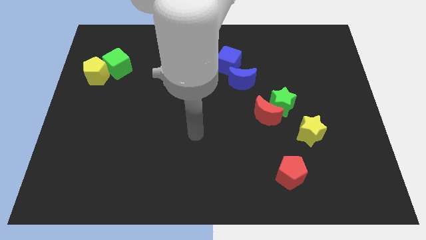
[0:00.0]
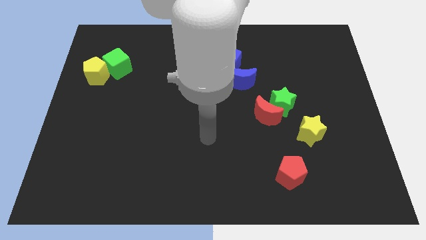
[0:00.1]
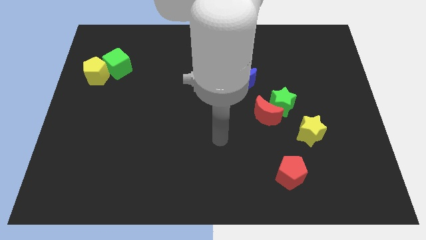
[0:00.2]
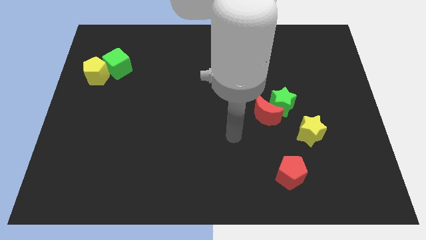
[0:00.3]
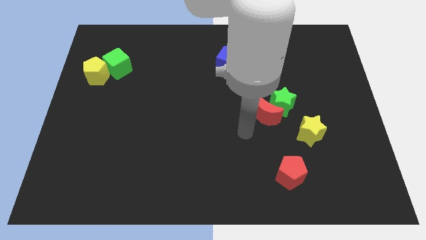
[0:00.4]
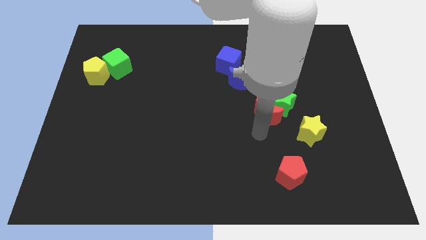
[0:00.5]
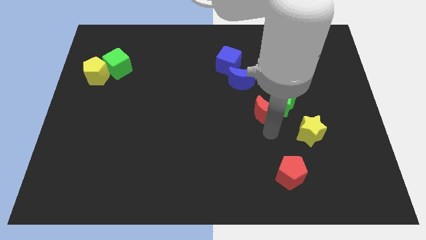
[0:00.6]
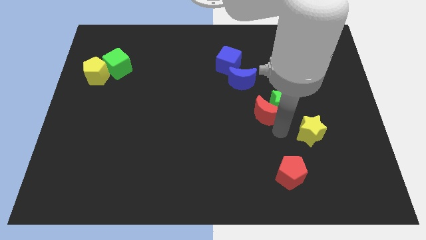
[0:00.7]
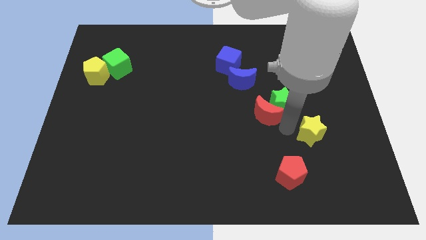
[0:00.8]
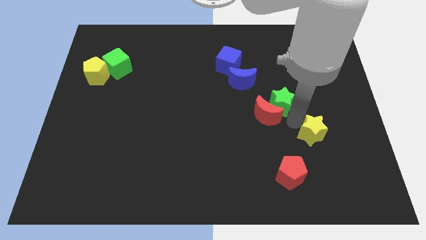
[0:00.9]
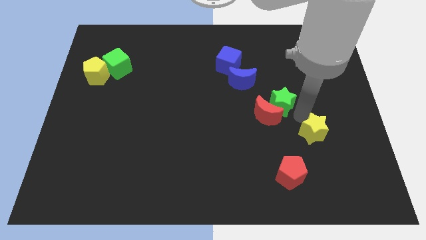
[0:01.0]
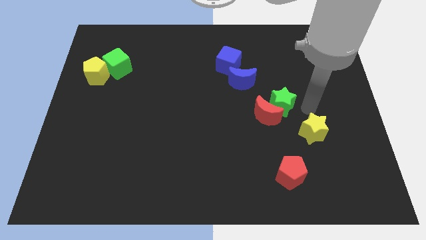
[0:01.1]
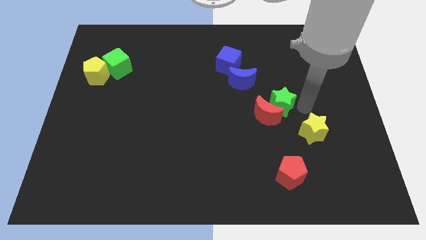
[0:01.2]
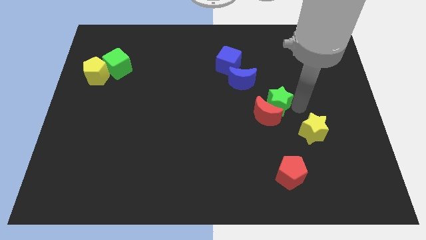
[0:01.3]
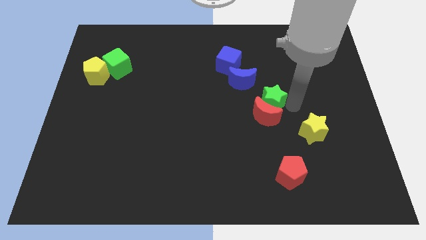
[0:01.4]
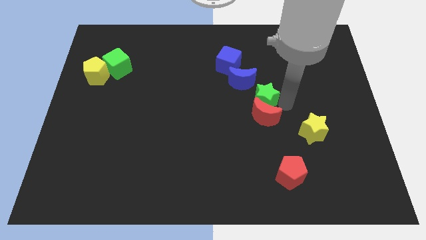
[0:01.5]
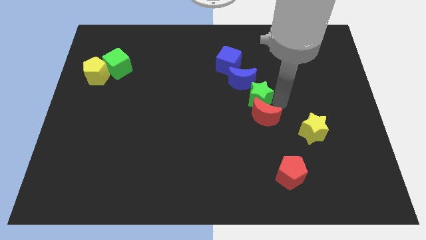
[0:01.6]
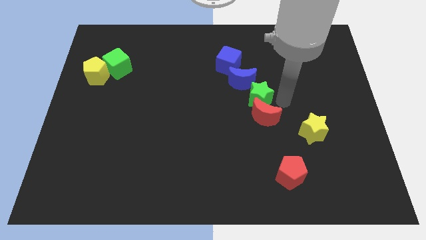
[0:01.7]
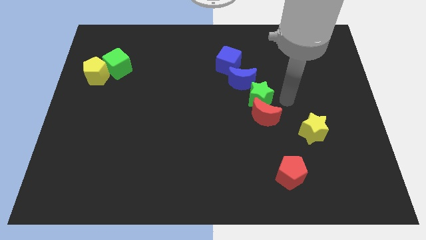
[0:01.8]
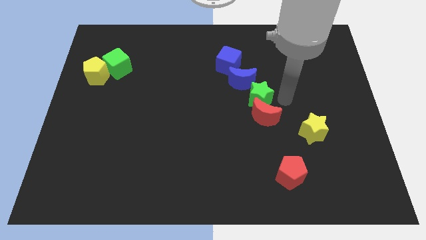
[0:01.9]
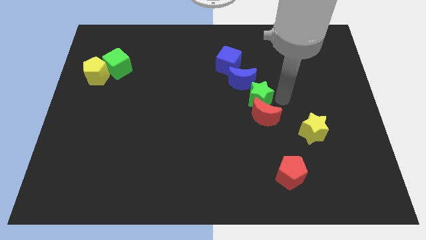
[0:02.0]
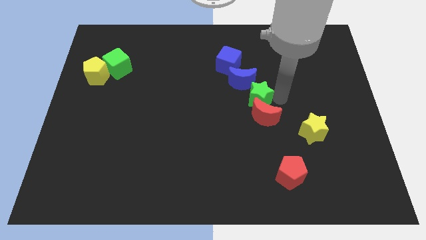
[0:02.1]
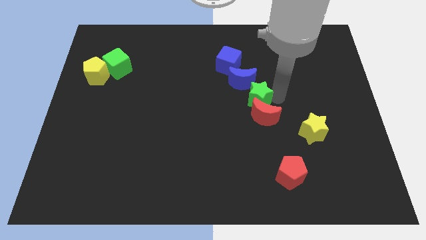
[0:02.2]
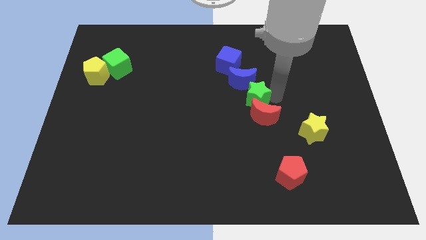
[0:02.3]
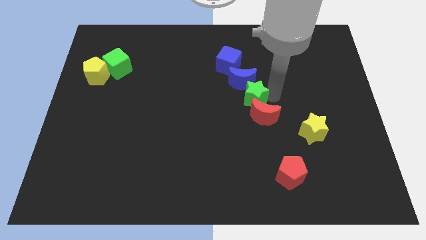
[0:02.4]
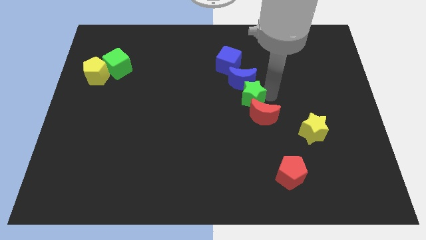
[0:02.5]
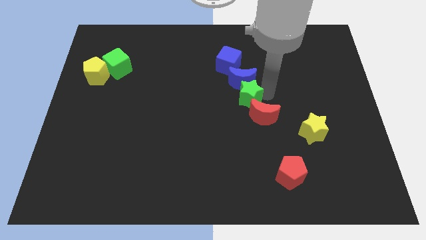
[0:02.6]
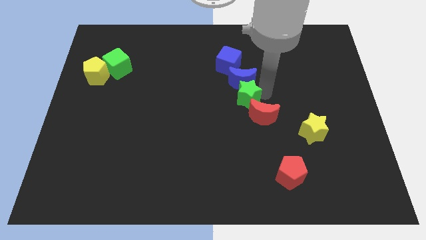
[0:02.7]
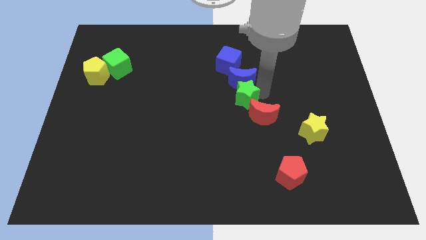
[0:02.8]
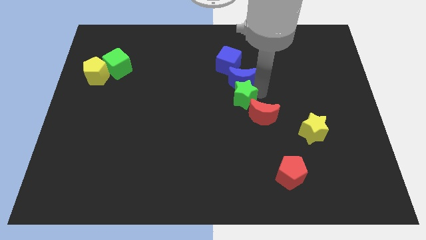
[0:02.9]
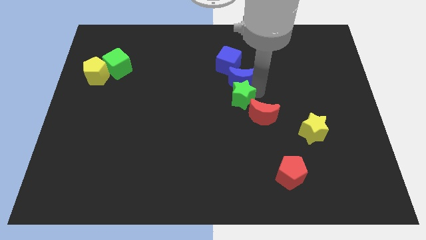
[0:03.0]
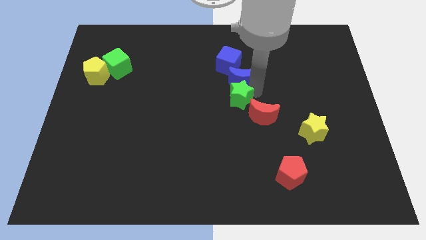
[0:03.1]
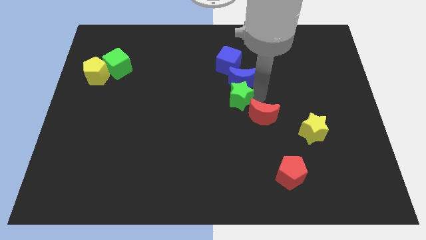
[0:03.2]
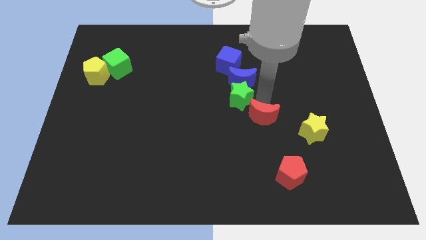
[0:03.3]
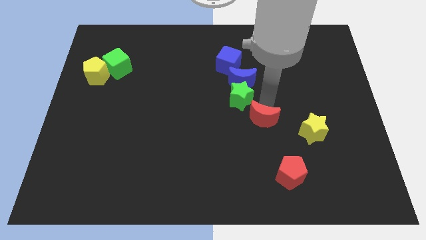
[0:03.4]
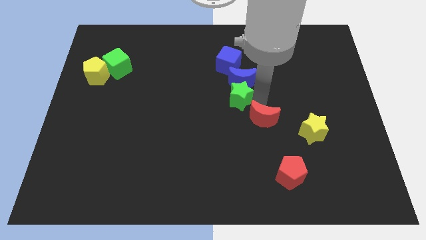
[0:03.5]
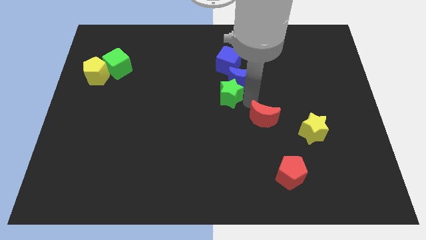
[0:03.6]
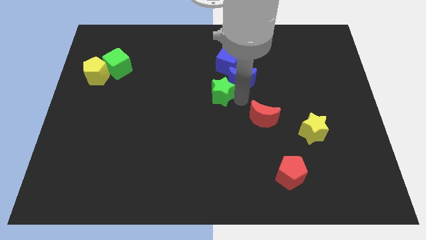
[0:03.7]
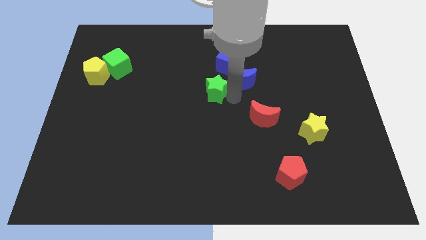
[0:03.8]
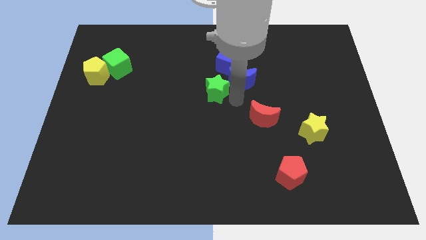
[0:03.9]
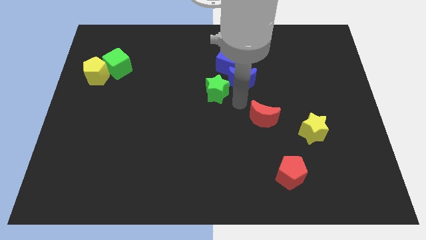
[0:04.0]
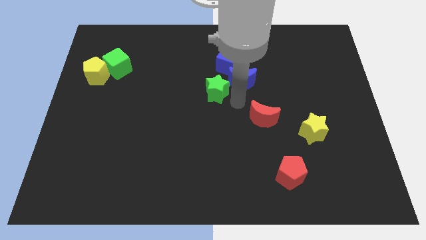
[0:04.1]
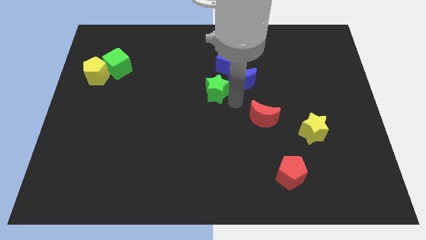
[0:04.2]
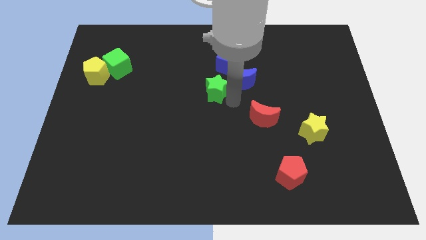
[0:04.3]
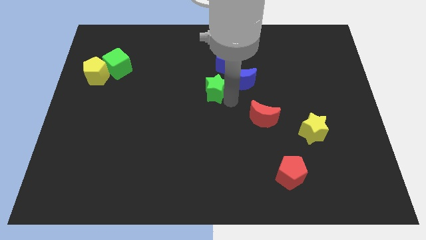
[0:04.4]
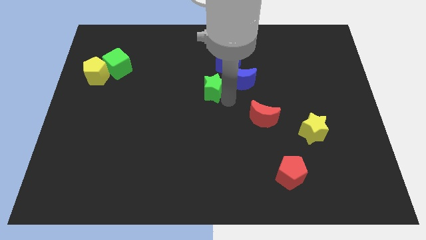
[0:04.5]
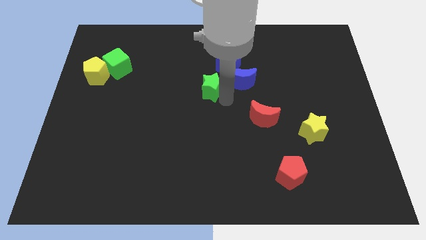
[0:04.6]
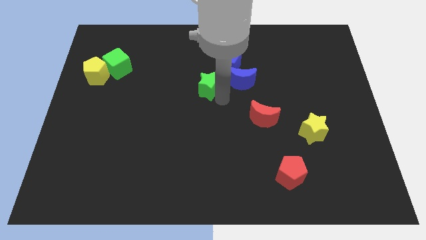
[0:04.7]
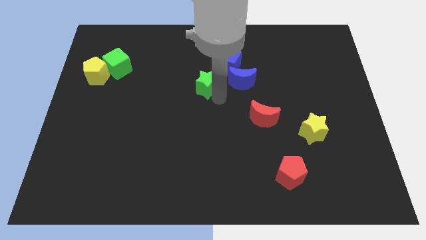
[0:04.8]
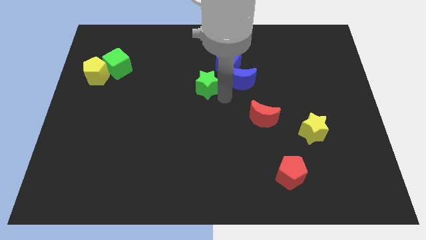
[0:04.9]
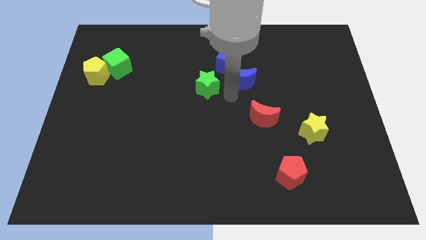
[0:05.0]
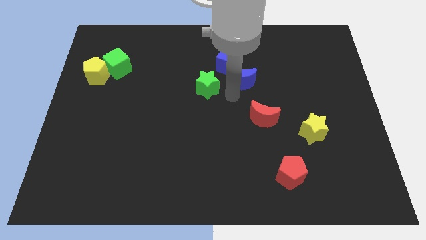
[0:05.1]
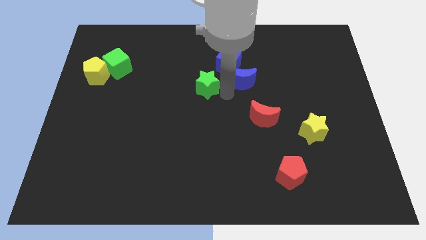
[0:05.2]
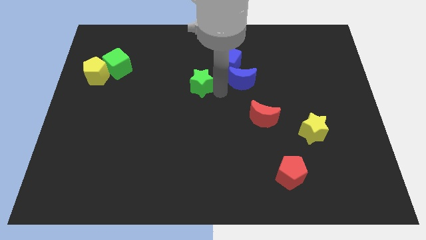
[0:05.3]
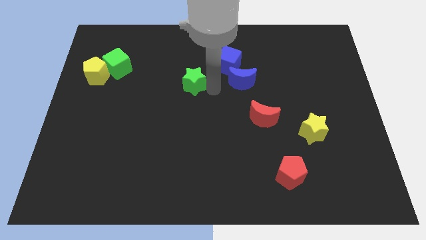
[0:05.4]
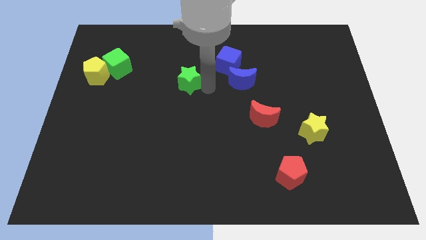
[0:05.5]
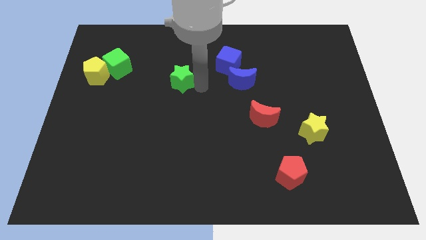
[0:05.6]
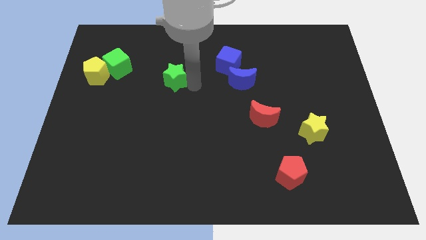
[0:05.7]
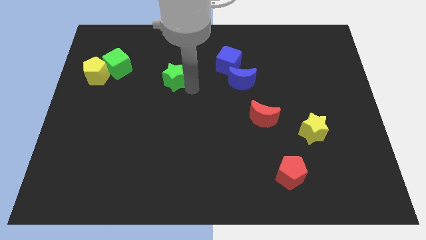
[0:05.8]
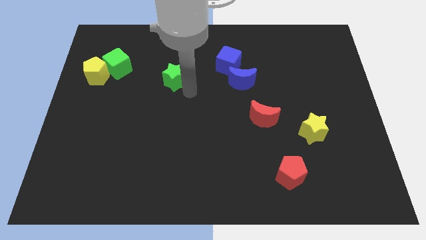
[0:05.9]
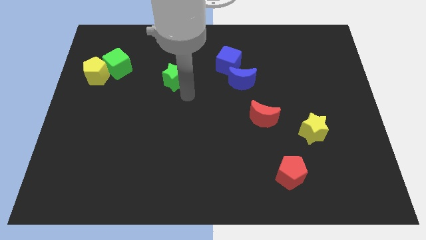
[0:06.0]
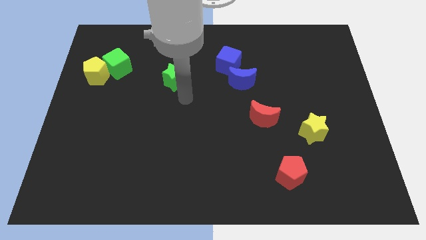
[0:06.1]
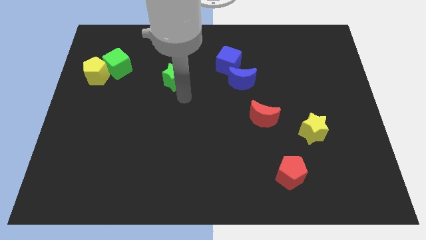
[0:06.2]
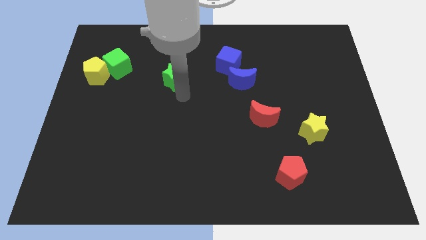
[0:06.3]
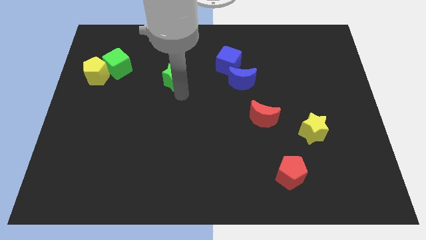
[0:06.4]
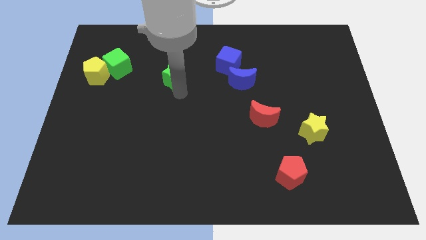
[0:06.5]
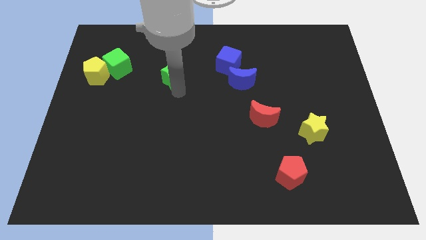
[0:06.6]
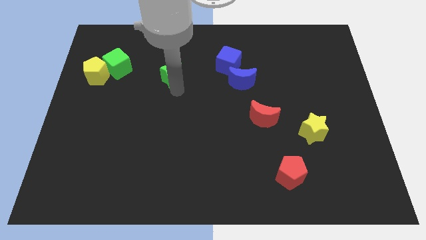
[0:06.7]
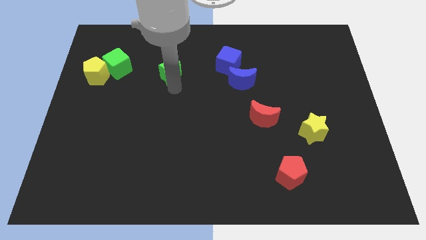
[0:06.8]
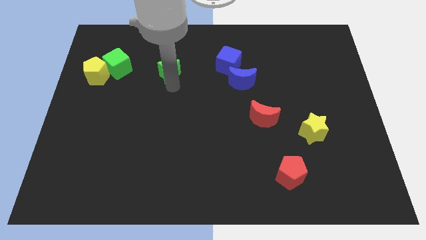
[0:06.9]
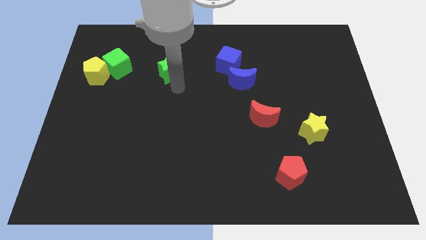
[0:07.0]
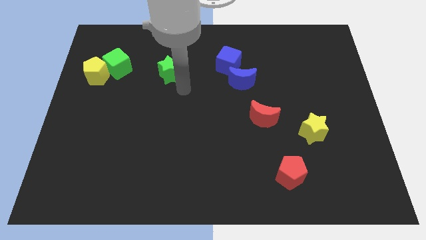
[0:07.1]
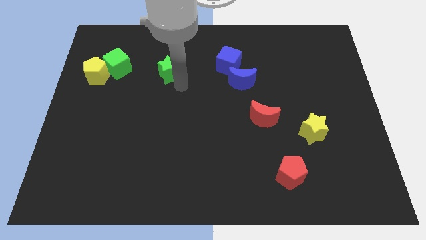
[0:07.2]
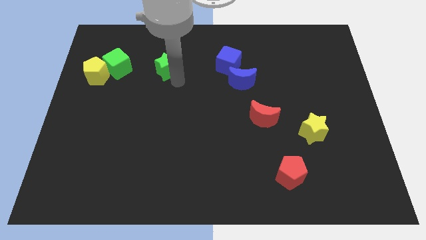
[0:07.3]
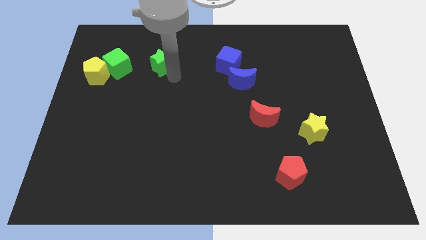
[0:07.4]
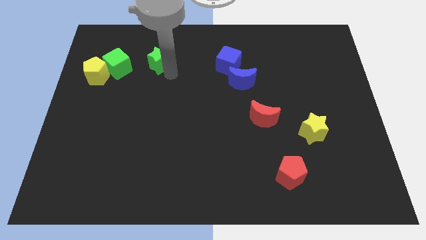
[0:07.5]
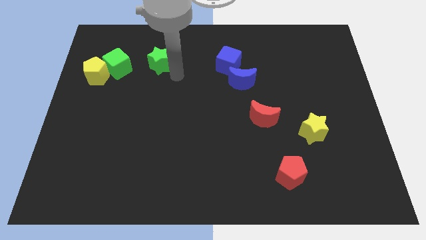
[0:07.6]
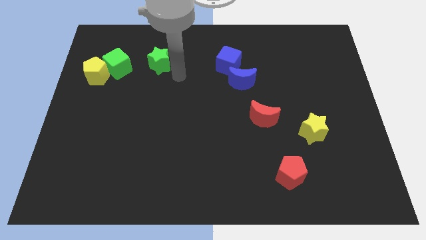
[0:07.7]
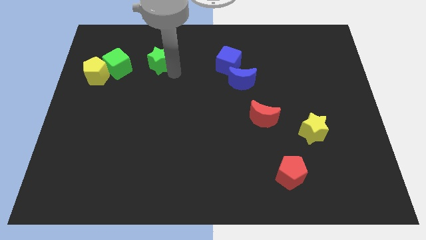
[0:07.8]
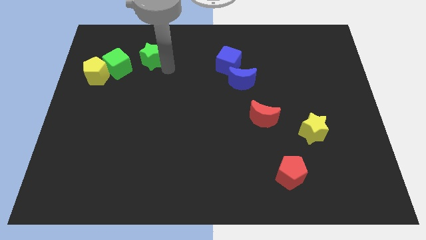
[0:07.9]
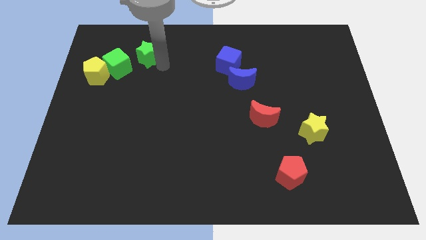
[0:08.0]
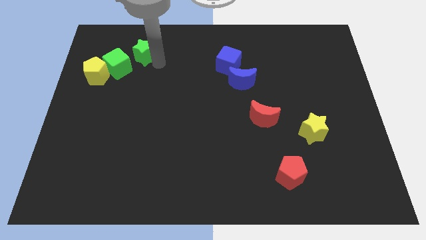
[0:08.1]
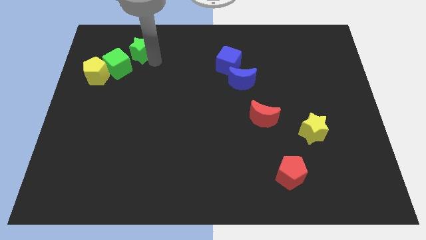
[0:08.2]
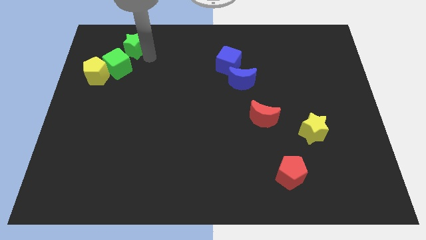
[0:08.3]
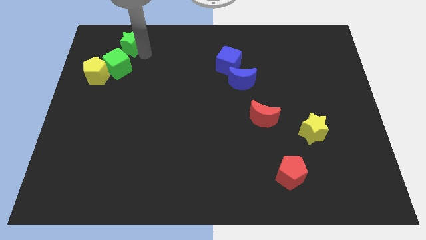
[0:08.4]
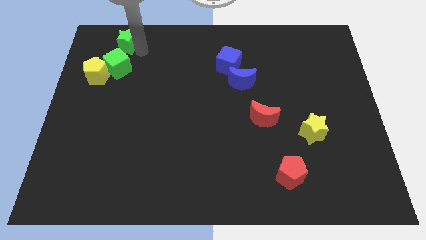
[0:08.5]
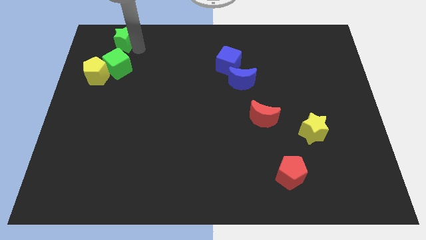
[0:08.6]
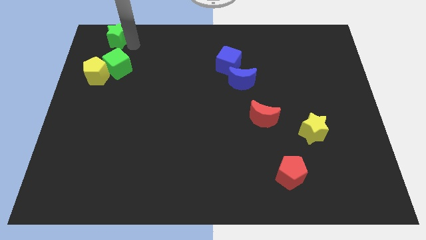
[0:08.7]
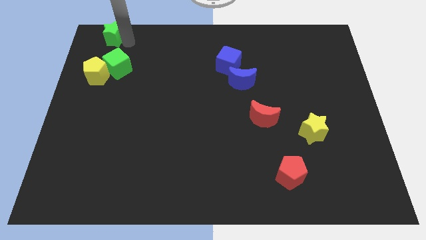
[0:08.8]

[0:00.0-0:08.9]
move the green star to the top left corner
